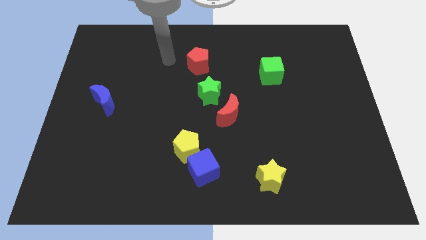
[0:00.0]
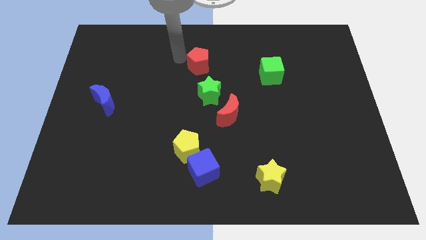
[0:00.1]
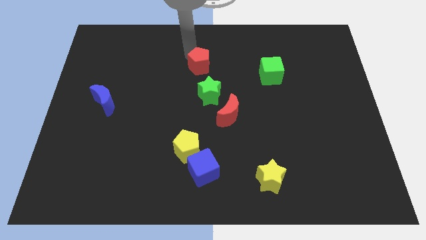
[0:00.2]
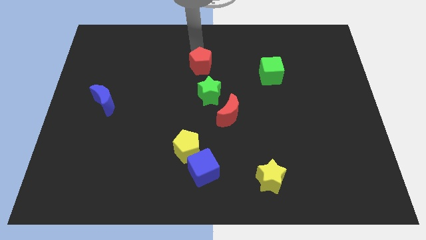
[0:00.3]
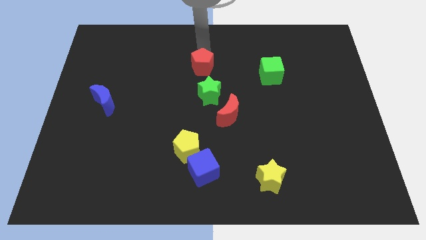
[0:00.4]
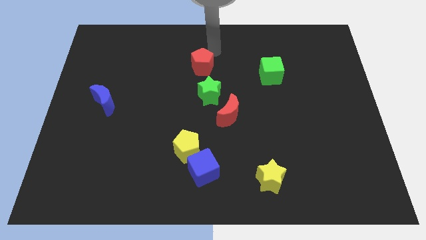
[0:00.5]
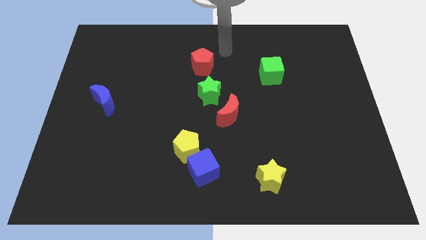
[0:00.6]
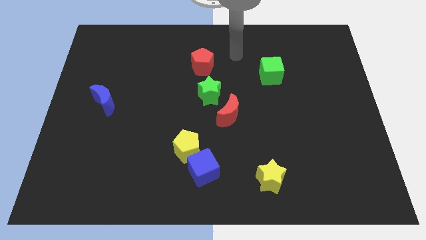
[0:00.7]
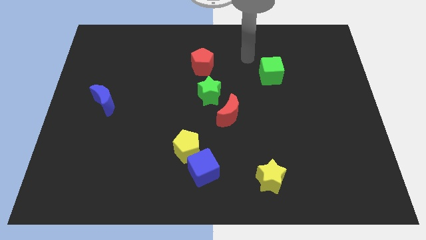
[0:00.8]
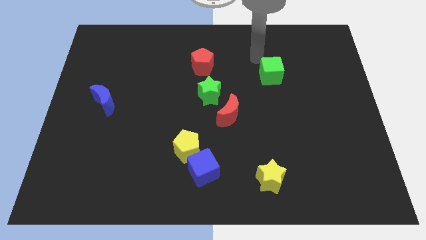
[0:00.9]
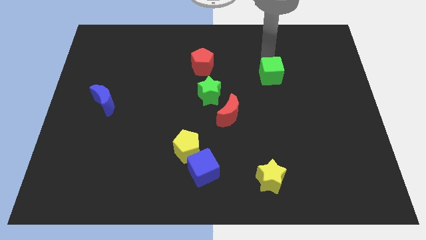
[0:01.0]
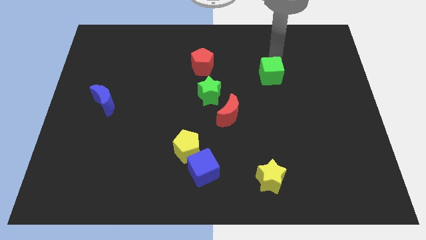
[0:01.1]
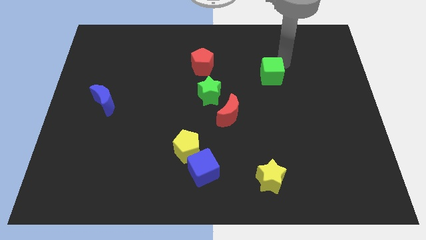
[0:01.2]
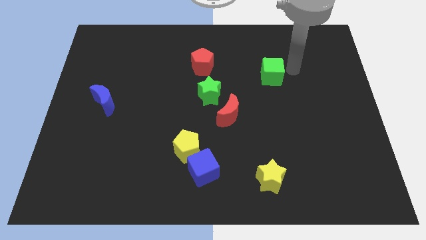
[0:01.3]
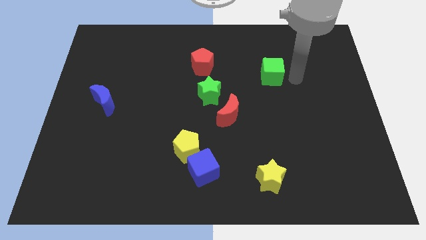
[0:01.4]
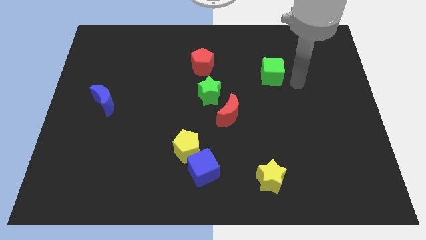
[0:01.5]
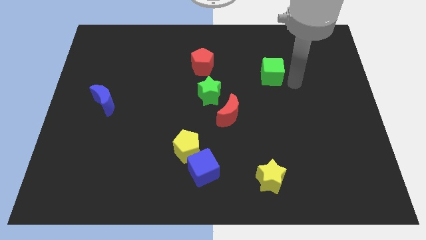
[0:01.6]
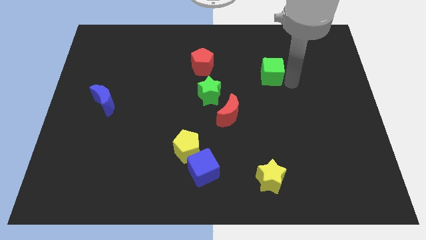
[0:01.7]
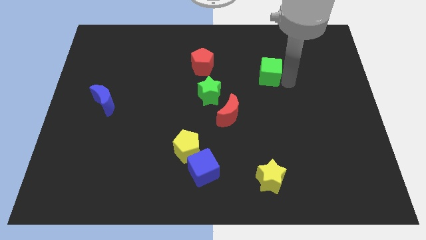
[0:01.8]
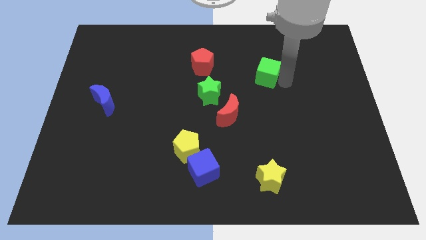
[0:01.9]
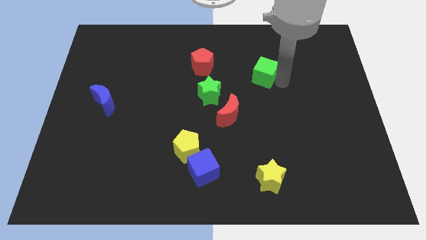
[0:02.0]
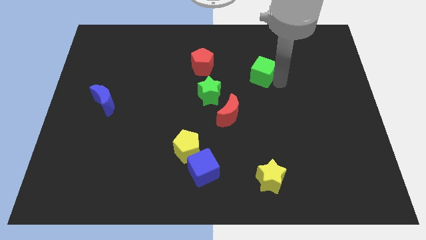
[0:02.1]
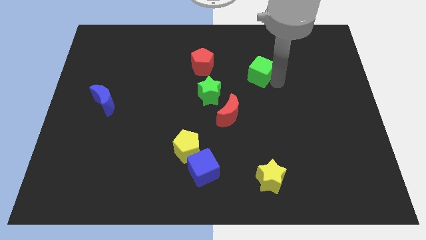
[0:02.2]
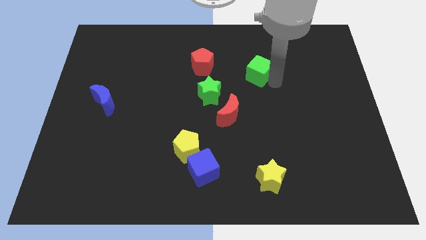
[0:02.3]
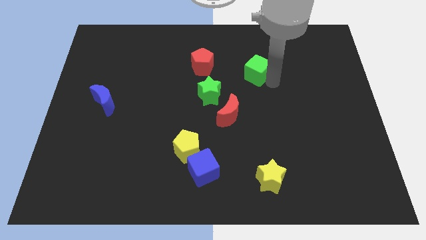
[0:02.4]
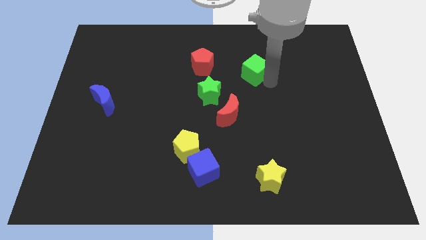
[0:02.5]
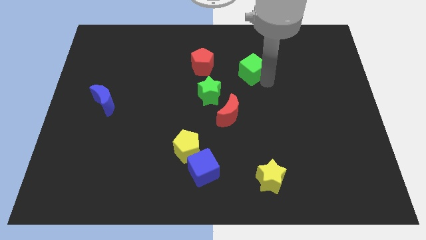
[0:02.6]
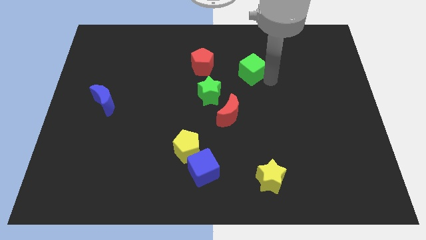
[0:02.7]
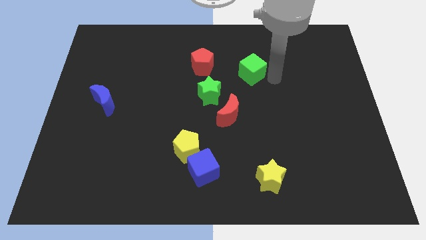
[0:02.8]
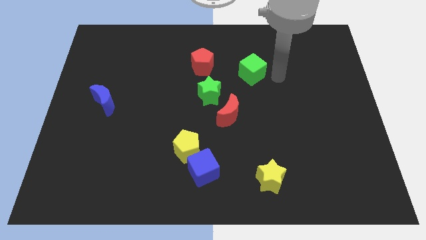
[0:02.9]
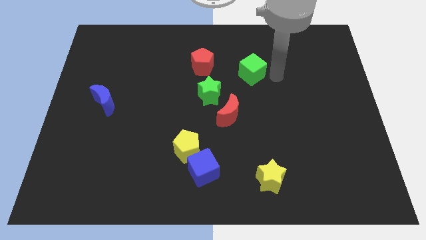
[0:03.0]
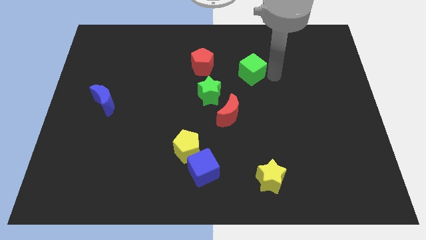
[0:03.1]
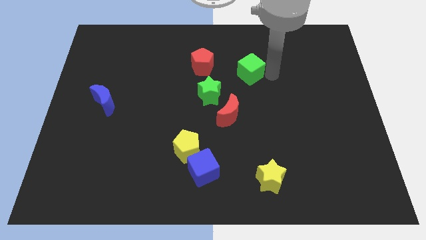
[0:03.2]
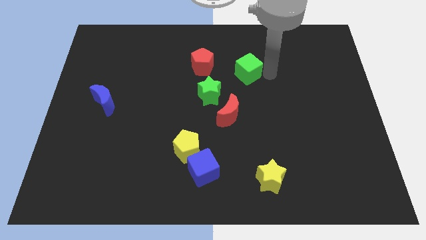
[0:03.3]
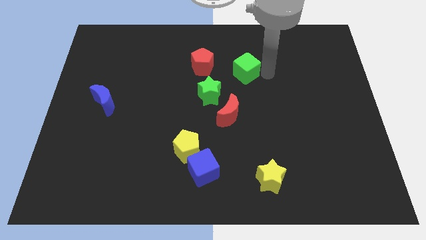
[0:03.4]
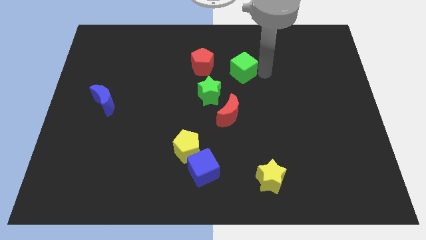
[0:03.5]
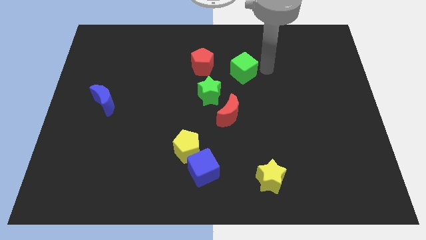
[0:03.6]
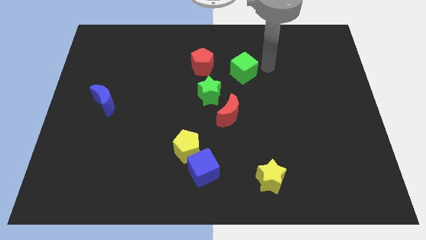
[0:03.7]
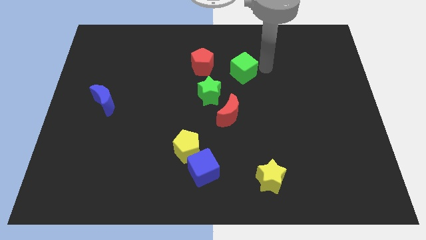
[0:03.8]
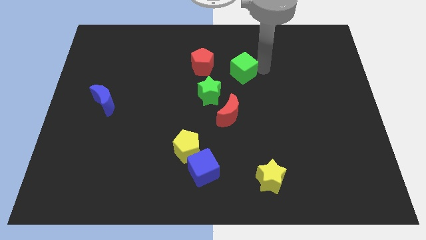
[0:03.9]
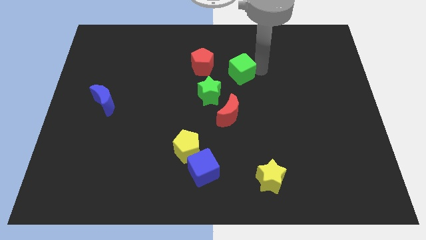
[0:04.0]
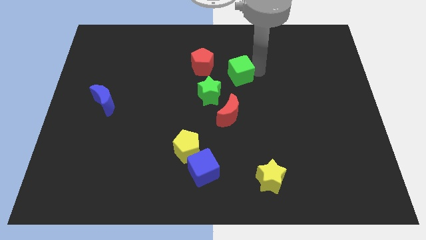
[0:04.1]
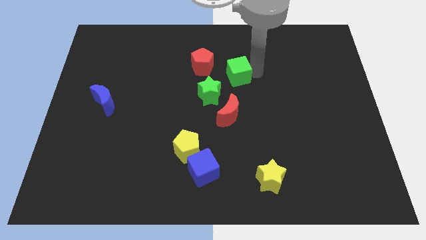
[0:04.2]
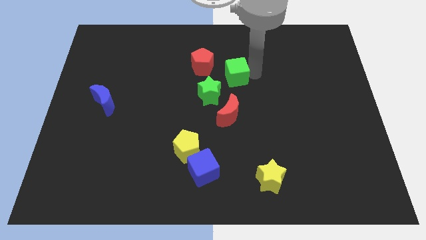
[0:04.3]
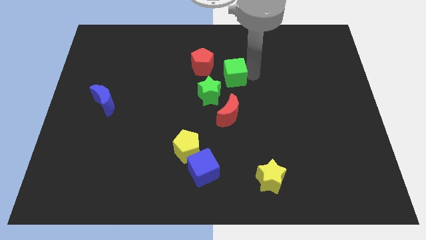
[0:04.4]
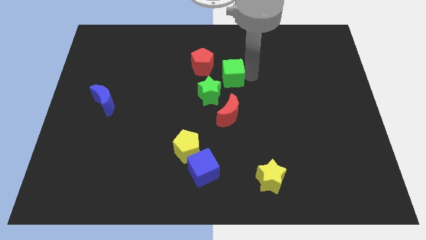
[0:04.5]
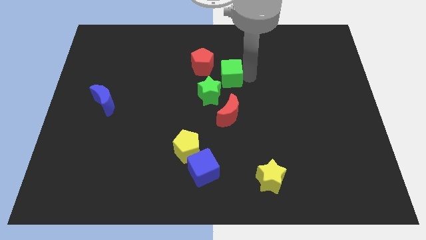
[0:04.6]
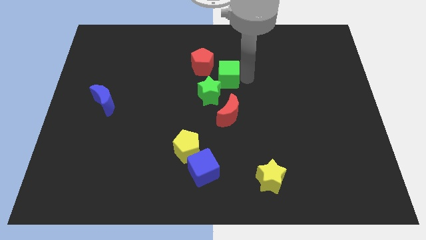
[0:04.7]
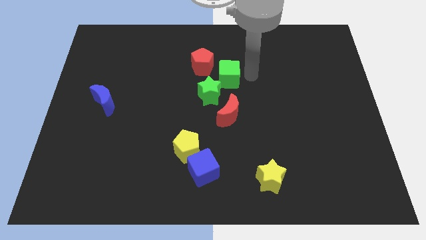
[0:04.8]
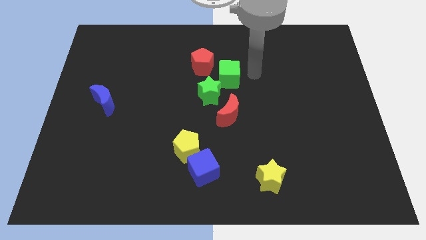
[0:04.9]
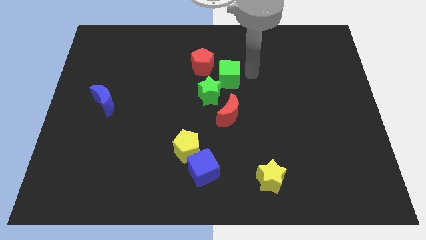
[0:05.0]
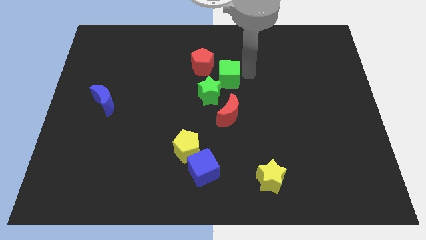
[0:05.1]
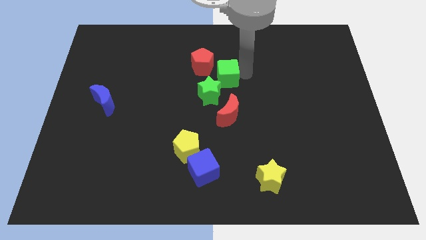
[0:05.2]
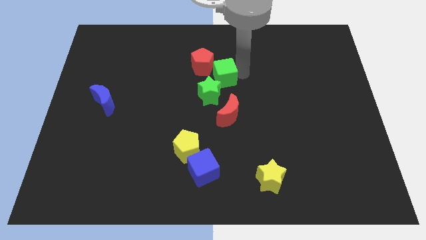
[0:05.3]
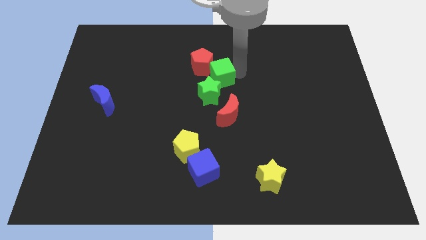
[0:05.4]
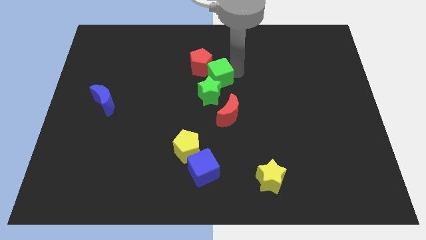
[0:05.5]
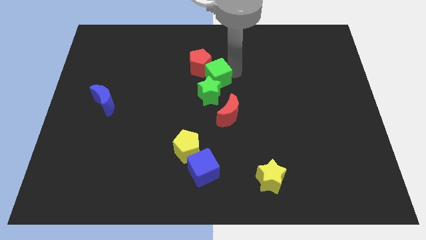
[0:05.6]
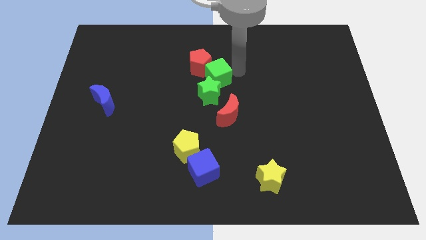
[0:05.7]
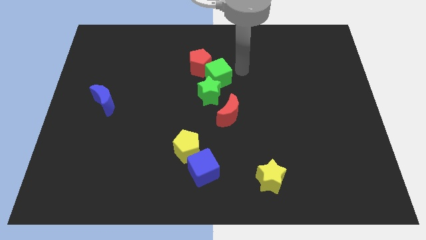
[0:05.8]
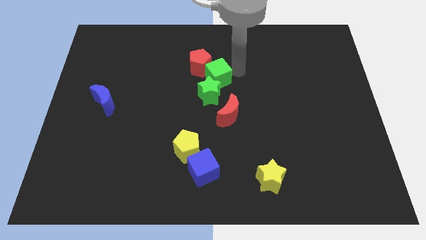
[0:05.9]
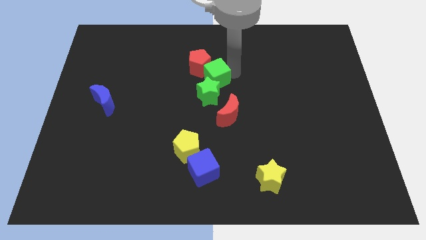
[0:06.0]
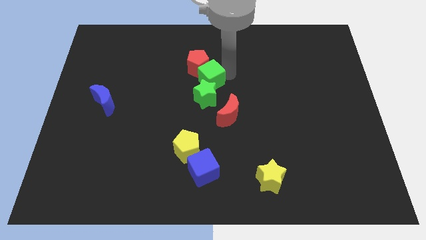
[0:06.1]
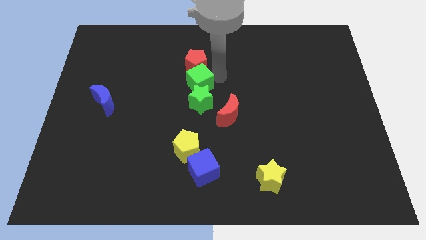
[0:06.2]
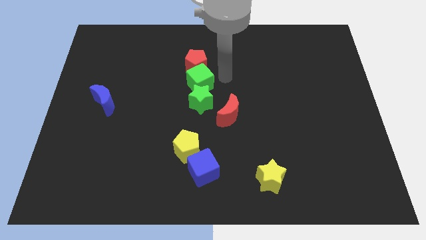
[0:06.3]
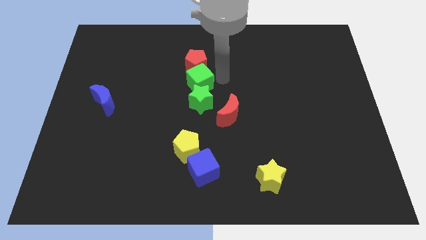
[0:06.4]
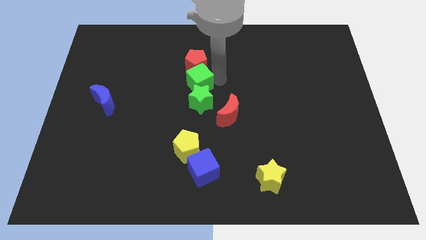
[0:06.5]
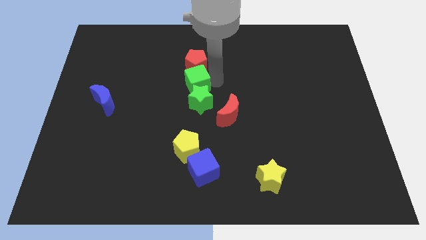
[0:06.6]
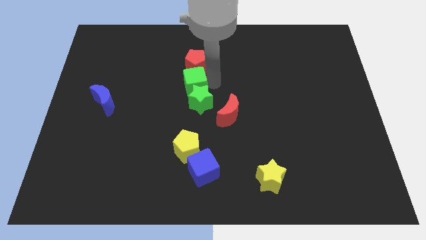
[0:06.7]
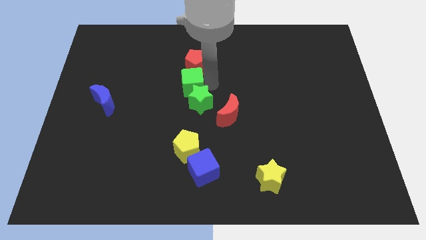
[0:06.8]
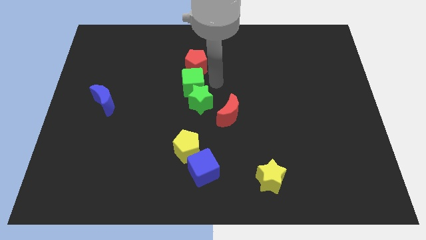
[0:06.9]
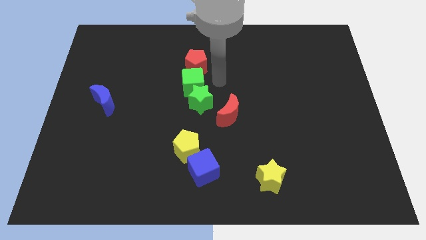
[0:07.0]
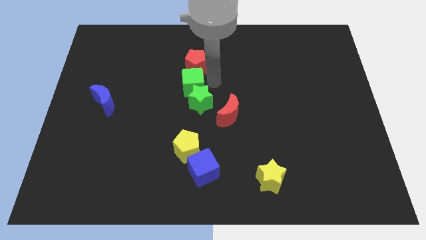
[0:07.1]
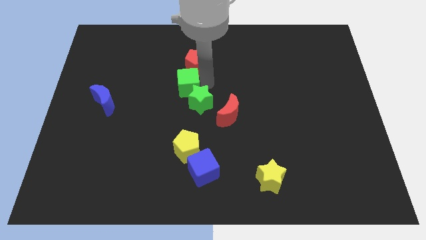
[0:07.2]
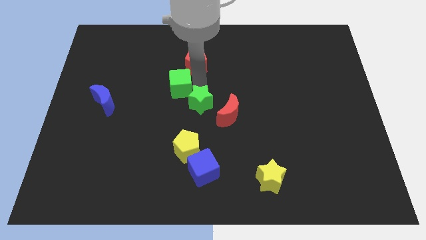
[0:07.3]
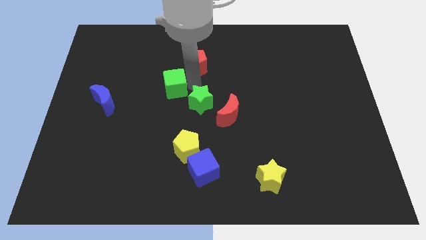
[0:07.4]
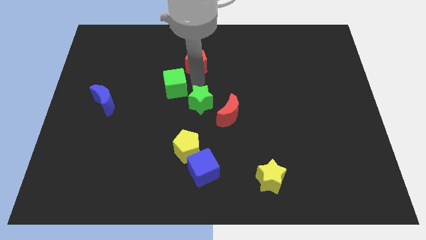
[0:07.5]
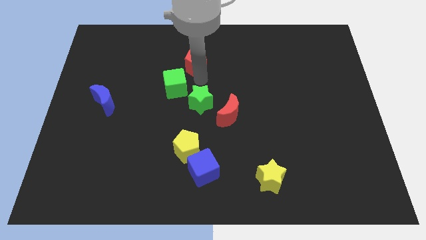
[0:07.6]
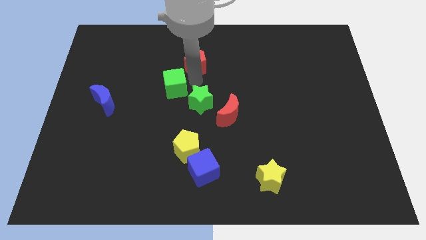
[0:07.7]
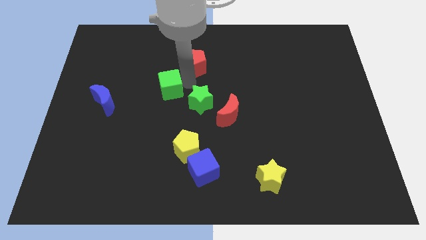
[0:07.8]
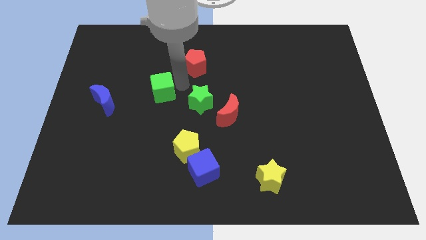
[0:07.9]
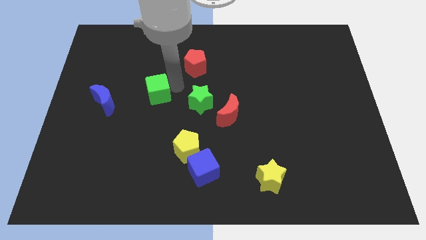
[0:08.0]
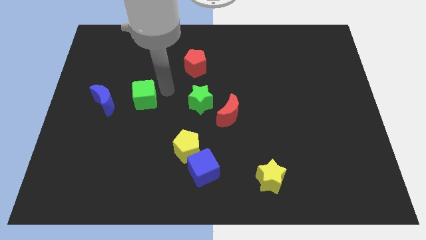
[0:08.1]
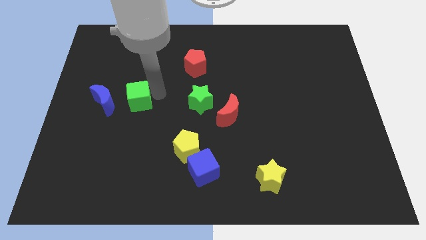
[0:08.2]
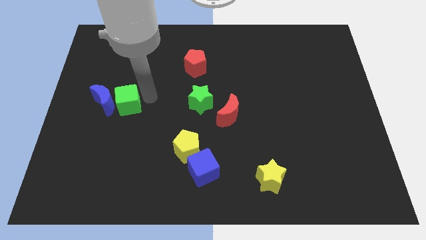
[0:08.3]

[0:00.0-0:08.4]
slide the green cube to the blue moon
